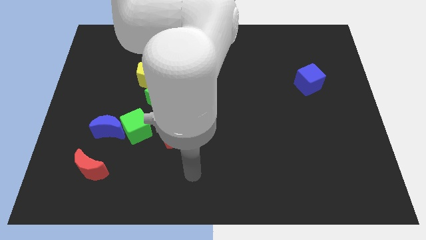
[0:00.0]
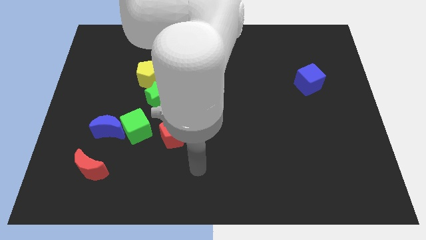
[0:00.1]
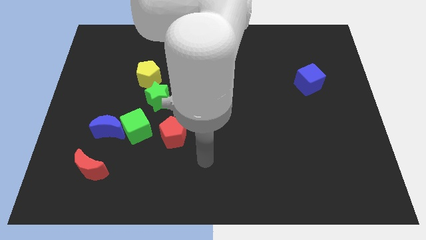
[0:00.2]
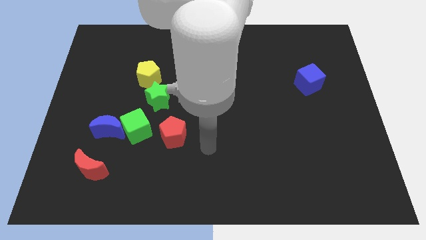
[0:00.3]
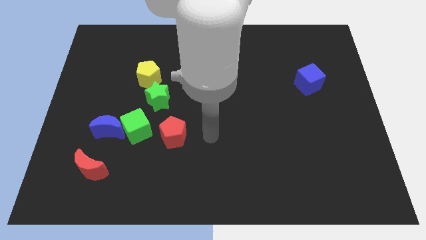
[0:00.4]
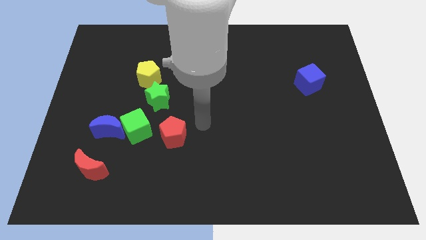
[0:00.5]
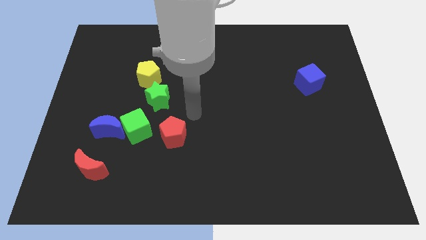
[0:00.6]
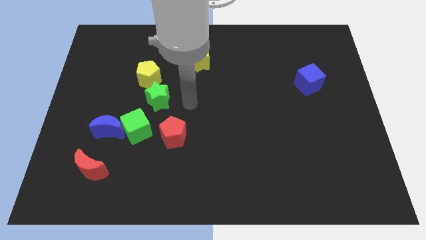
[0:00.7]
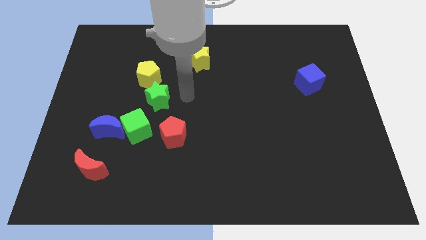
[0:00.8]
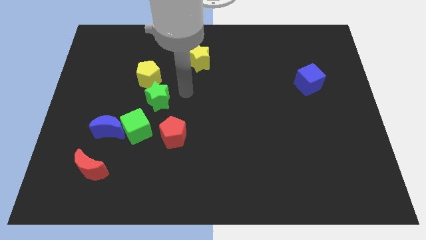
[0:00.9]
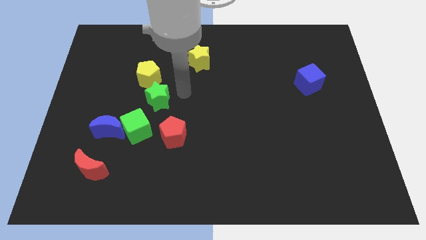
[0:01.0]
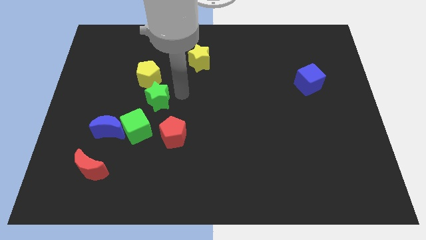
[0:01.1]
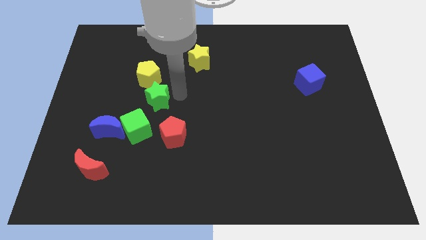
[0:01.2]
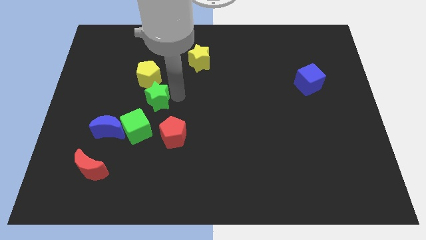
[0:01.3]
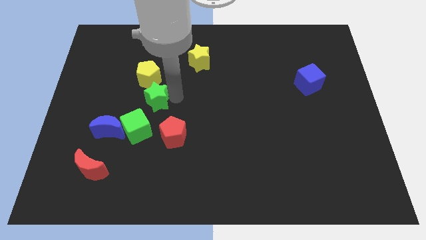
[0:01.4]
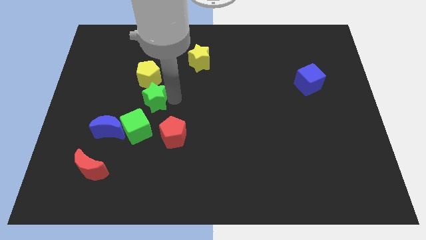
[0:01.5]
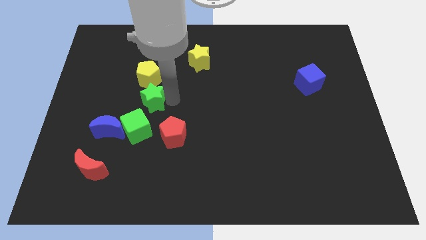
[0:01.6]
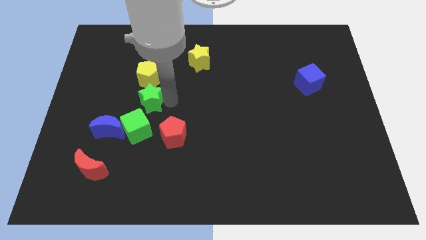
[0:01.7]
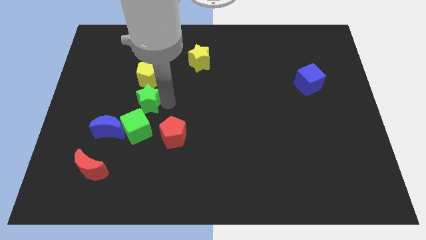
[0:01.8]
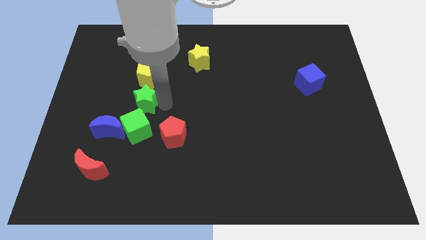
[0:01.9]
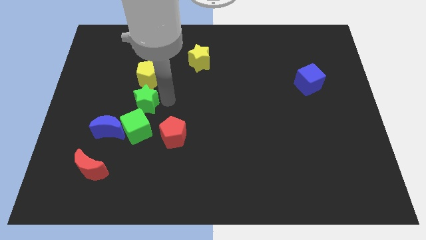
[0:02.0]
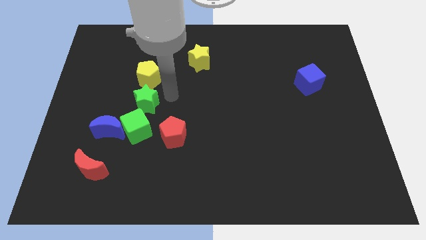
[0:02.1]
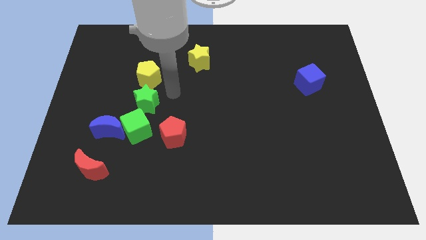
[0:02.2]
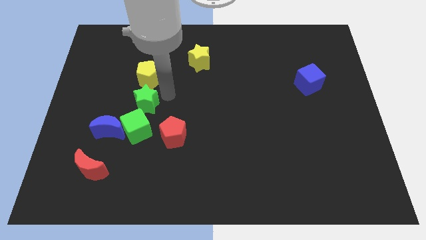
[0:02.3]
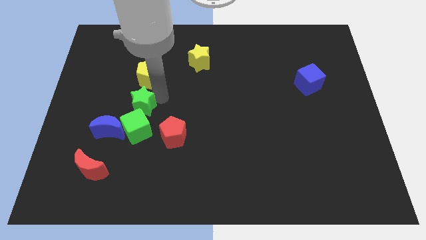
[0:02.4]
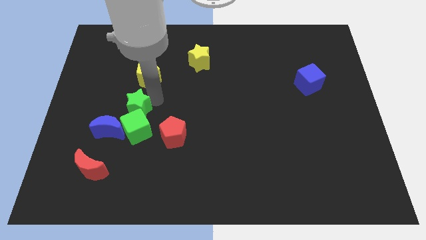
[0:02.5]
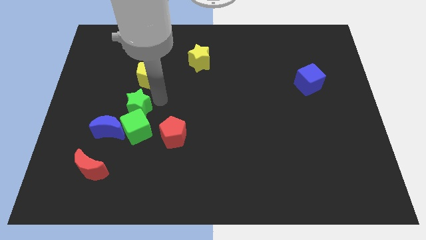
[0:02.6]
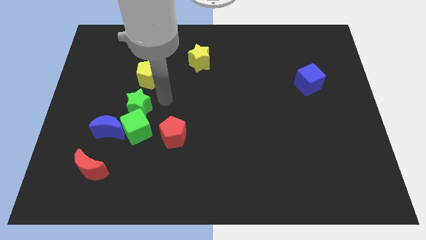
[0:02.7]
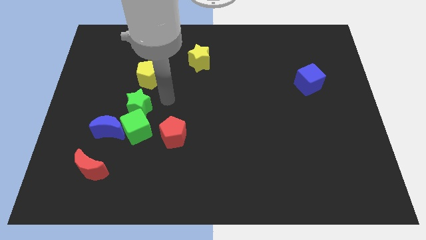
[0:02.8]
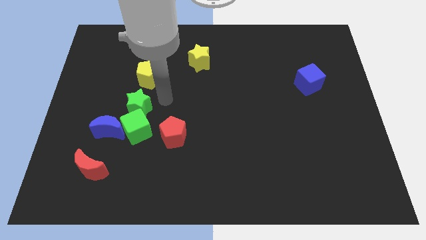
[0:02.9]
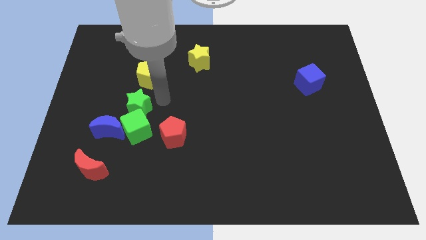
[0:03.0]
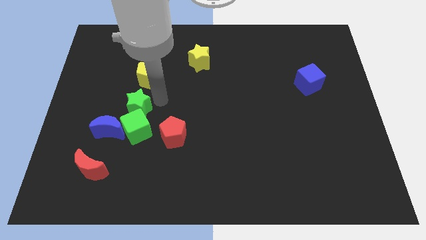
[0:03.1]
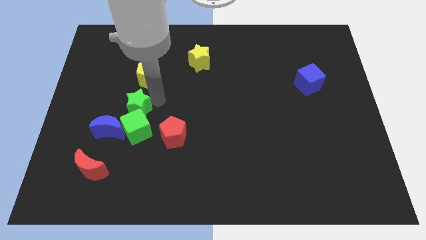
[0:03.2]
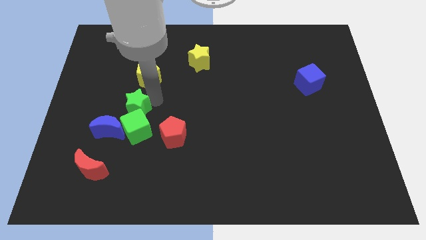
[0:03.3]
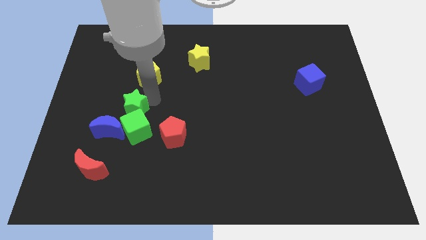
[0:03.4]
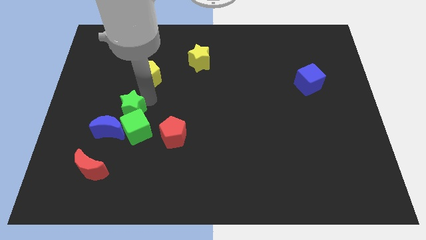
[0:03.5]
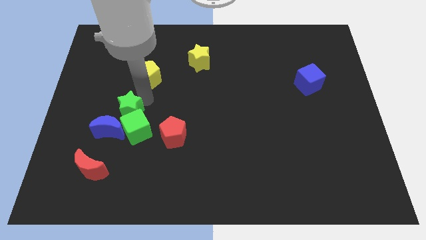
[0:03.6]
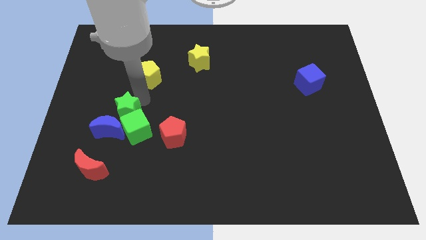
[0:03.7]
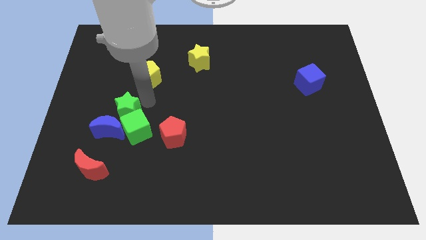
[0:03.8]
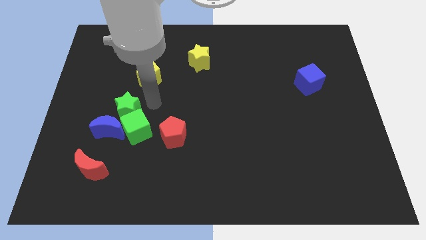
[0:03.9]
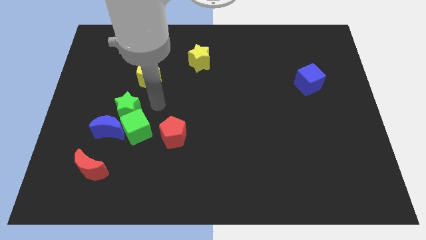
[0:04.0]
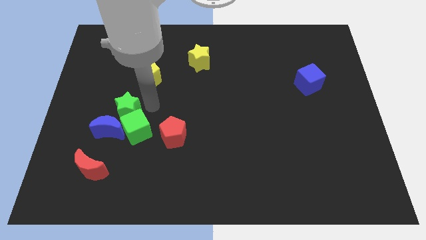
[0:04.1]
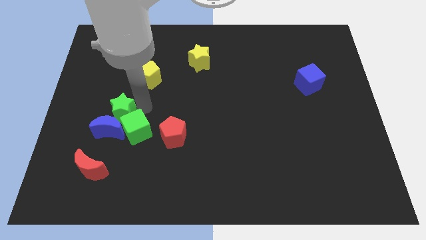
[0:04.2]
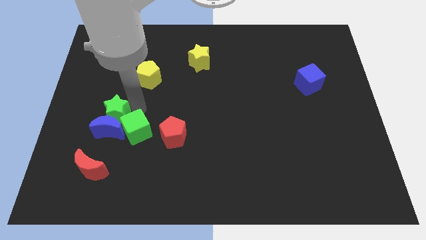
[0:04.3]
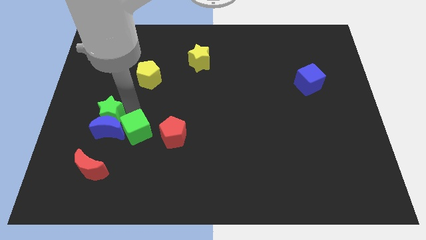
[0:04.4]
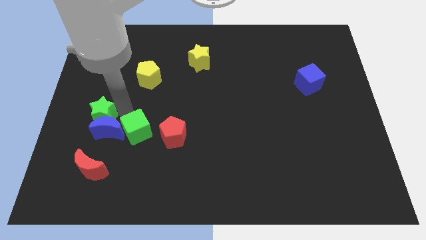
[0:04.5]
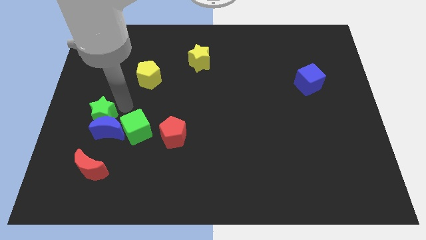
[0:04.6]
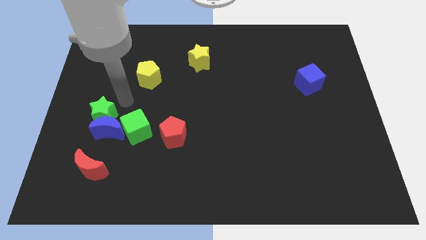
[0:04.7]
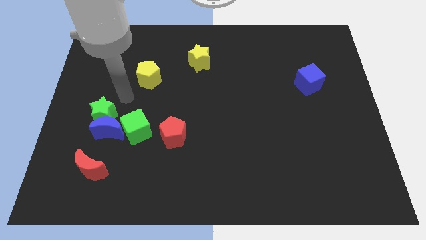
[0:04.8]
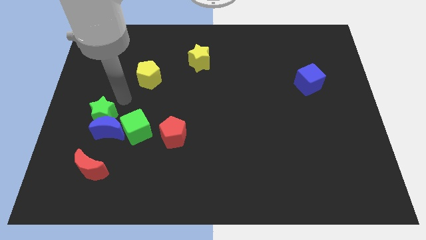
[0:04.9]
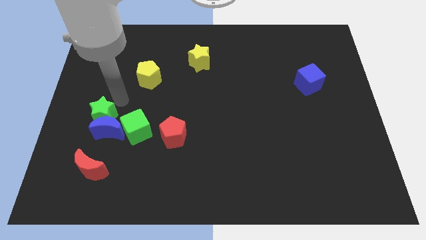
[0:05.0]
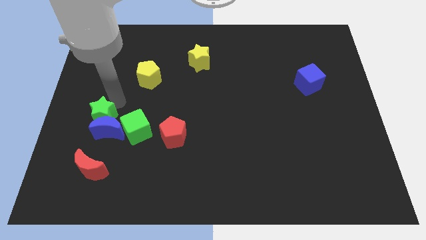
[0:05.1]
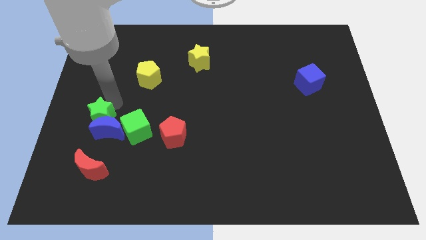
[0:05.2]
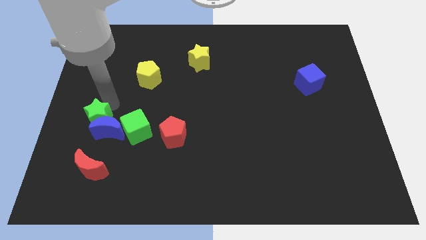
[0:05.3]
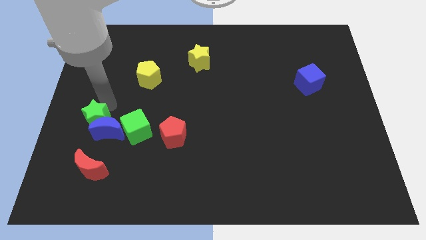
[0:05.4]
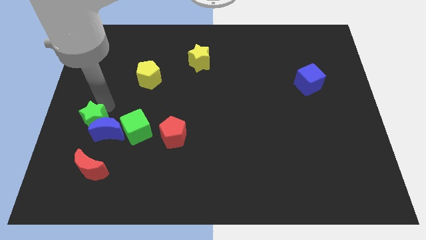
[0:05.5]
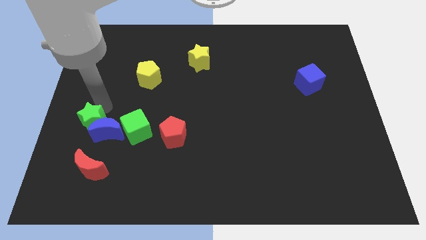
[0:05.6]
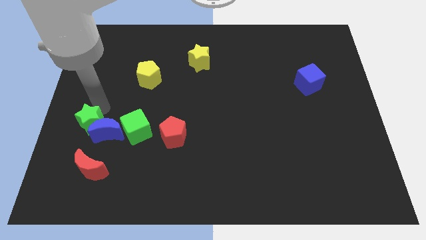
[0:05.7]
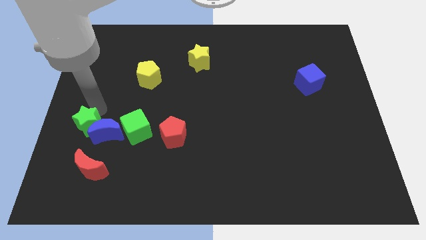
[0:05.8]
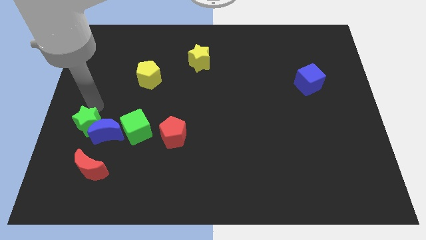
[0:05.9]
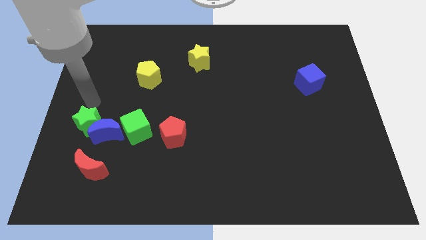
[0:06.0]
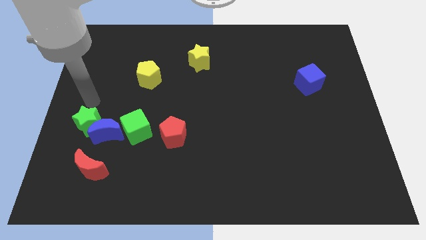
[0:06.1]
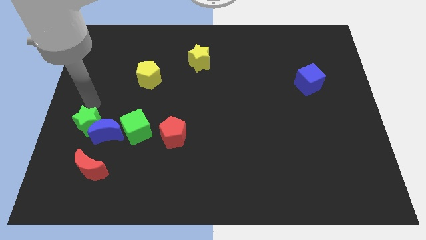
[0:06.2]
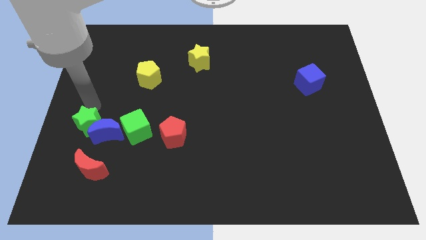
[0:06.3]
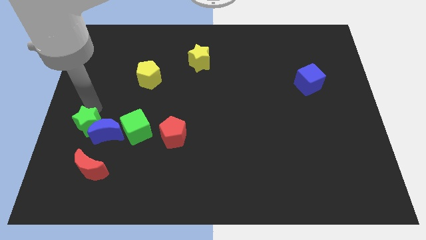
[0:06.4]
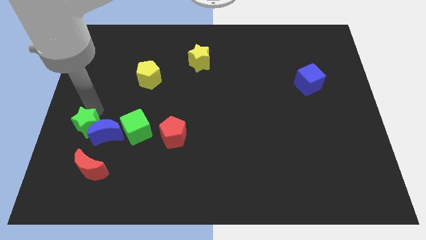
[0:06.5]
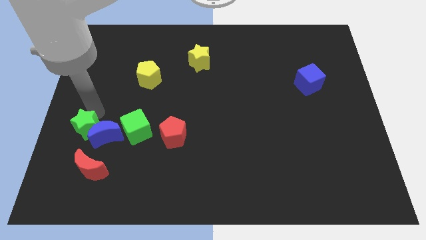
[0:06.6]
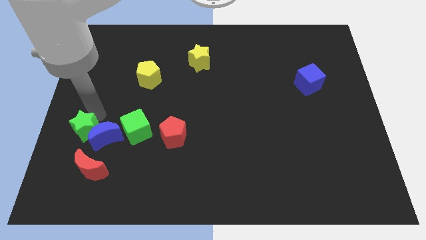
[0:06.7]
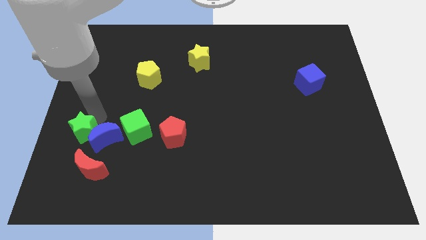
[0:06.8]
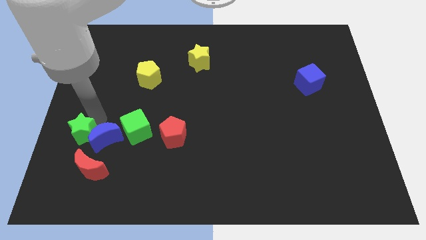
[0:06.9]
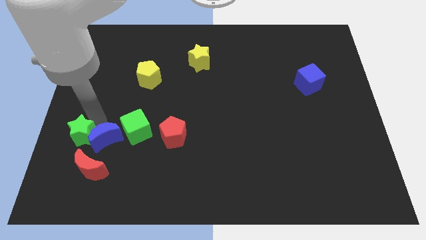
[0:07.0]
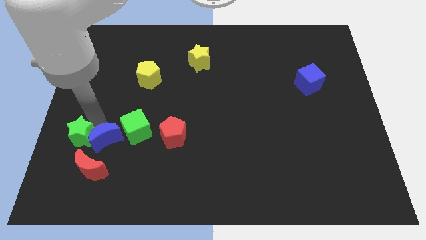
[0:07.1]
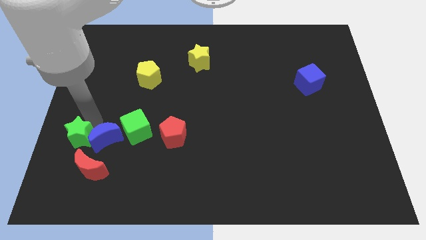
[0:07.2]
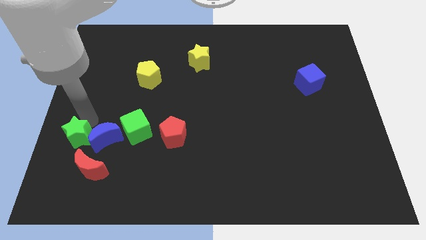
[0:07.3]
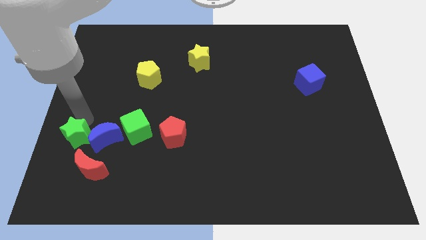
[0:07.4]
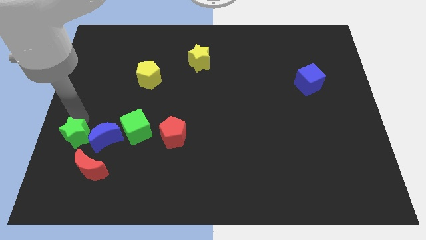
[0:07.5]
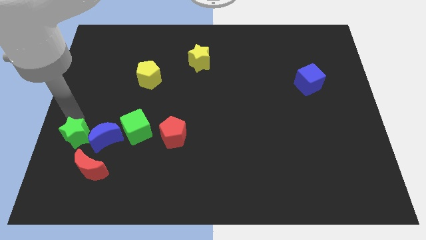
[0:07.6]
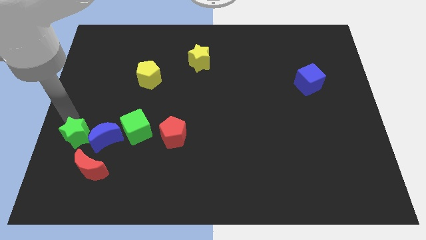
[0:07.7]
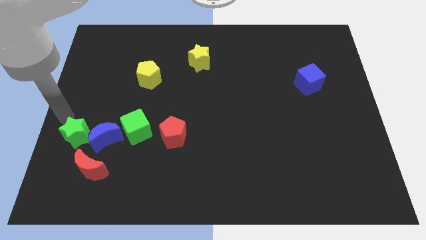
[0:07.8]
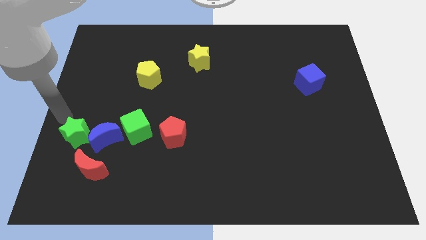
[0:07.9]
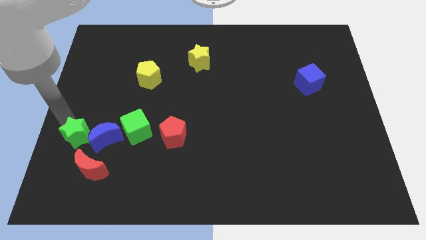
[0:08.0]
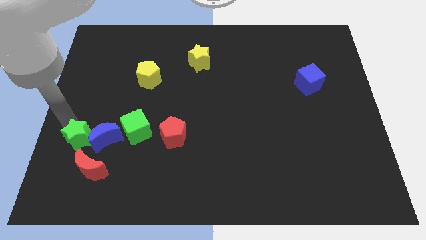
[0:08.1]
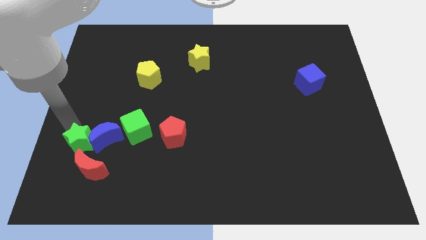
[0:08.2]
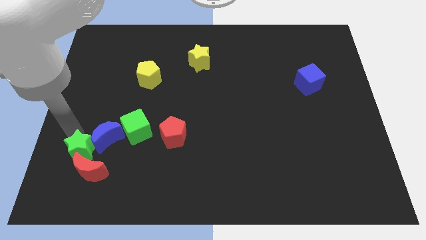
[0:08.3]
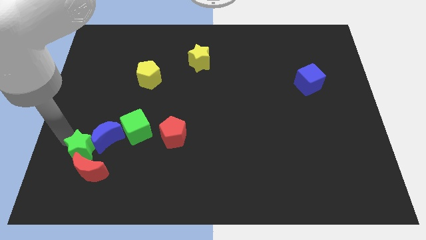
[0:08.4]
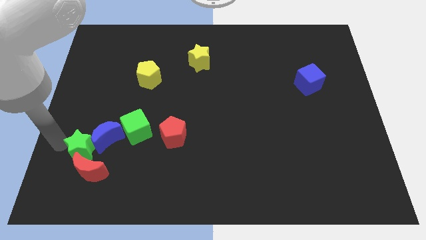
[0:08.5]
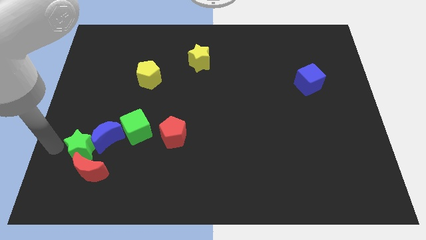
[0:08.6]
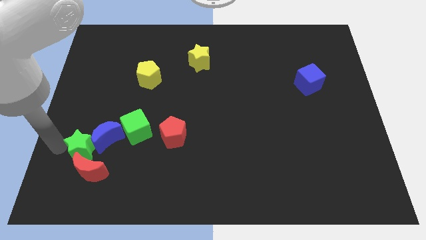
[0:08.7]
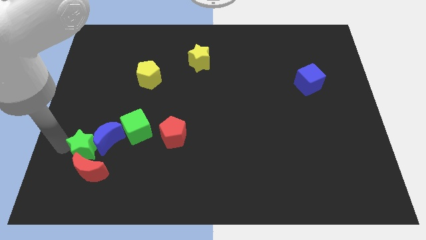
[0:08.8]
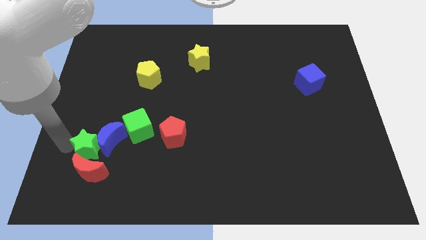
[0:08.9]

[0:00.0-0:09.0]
slide the green star to the top right side of the red moon
